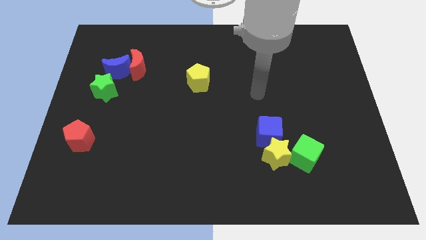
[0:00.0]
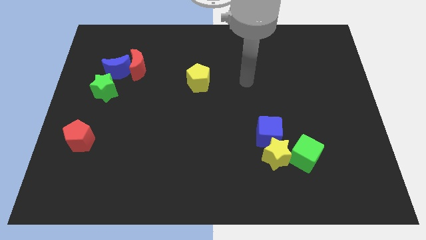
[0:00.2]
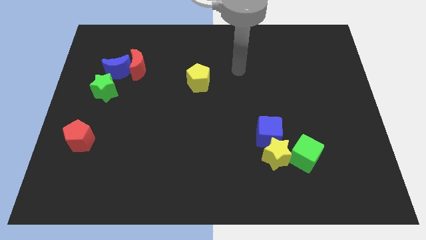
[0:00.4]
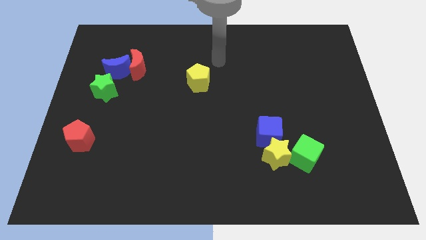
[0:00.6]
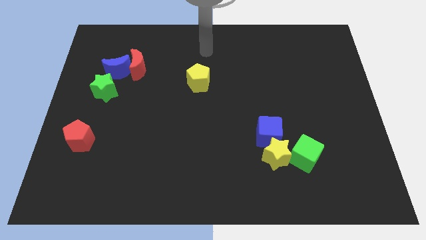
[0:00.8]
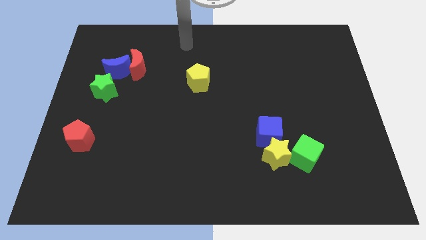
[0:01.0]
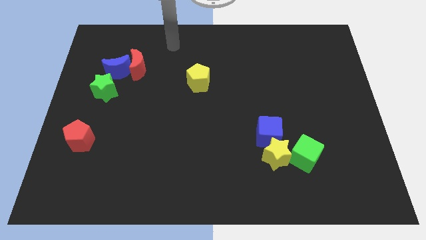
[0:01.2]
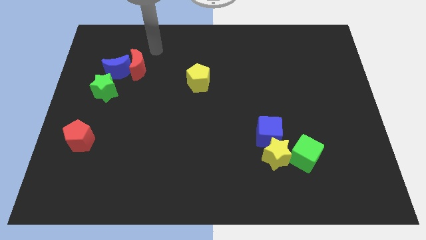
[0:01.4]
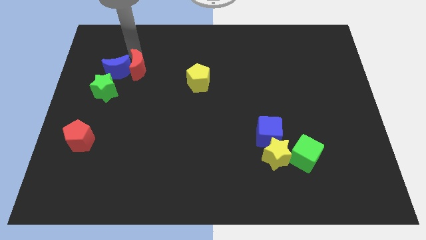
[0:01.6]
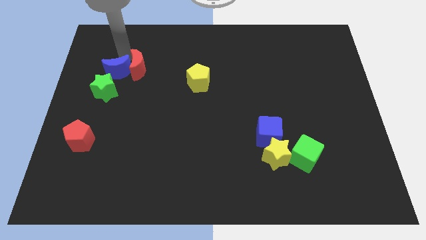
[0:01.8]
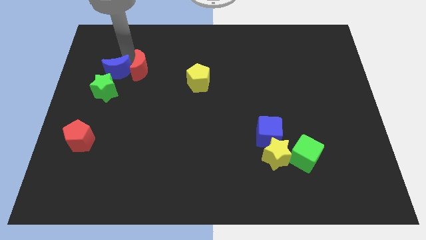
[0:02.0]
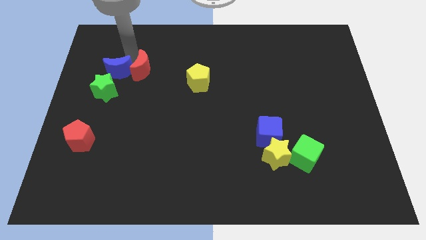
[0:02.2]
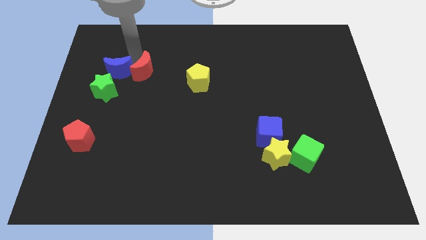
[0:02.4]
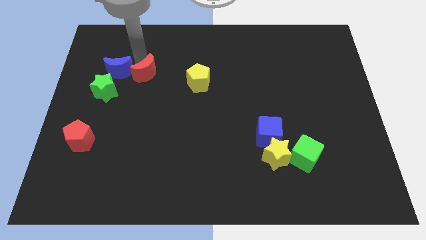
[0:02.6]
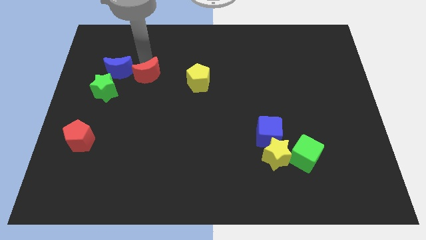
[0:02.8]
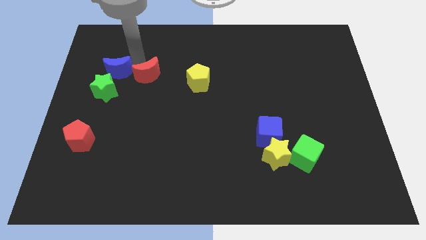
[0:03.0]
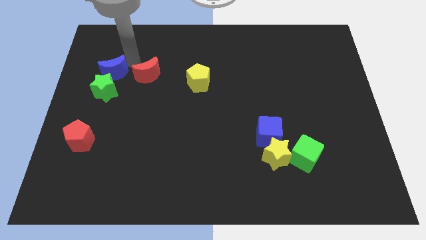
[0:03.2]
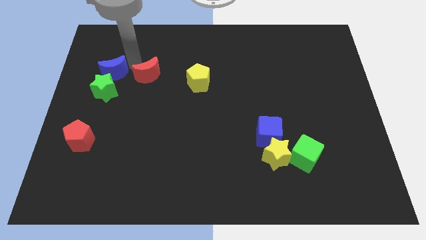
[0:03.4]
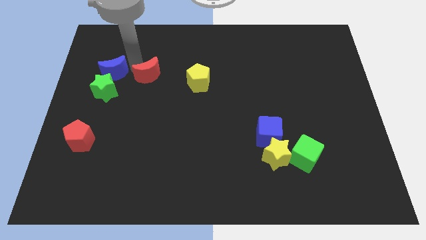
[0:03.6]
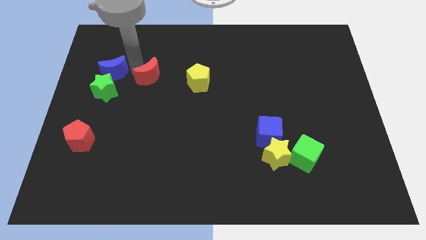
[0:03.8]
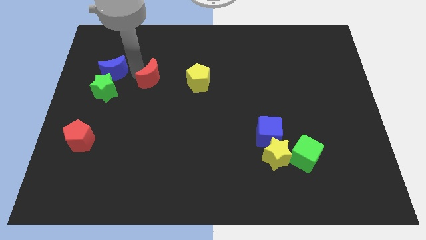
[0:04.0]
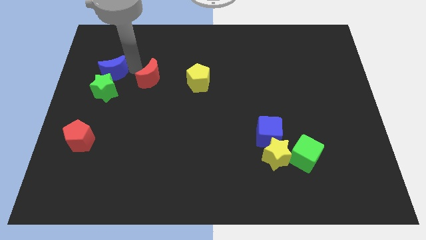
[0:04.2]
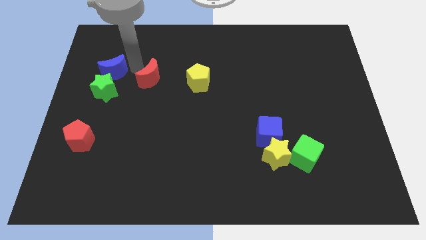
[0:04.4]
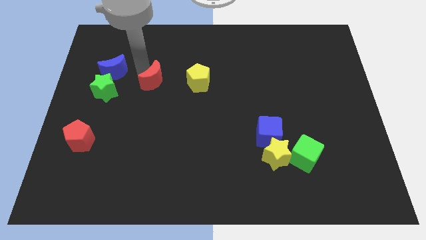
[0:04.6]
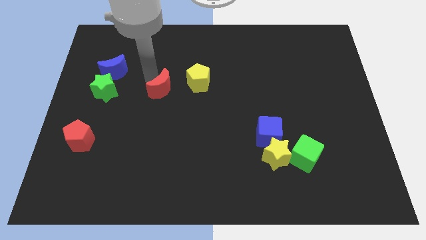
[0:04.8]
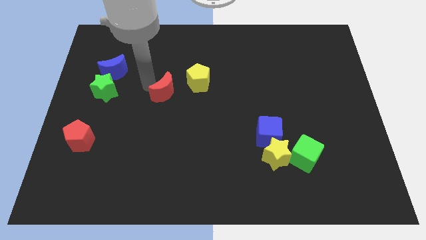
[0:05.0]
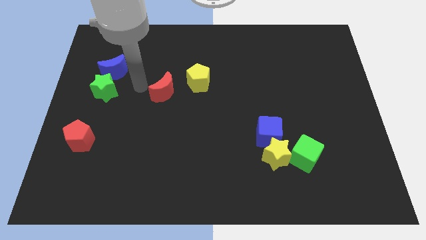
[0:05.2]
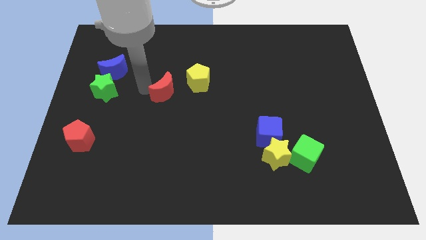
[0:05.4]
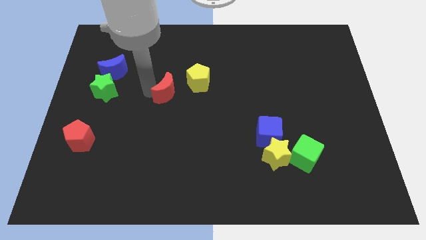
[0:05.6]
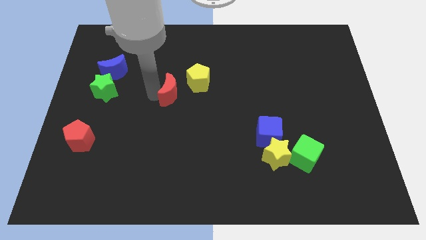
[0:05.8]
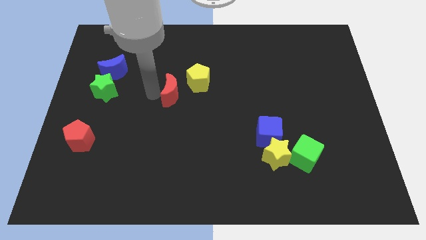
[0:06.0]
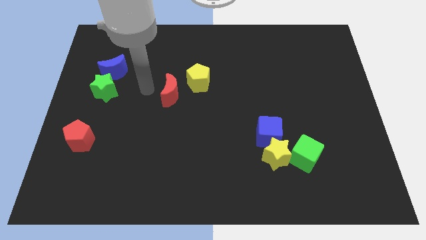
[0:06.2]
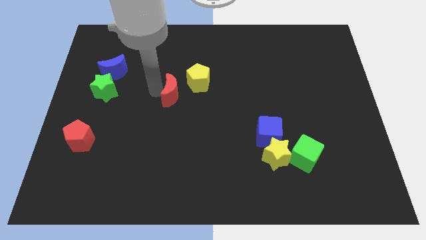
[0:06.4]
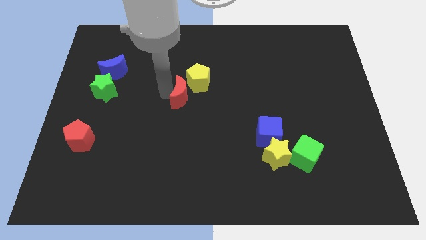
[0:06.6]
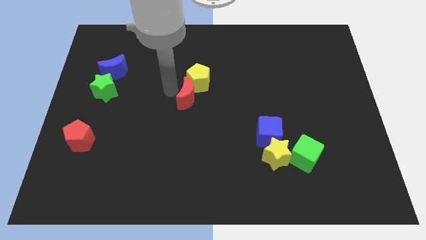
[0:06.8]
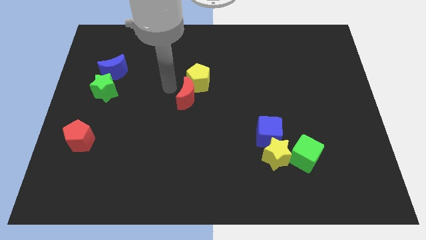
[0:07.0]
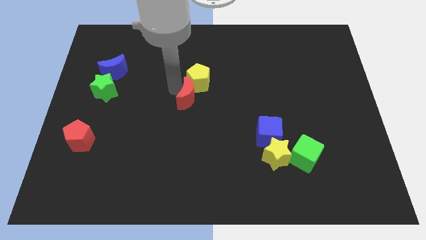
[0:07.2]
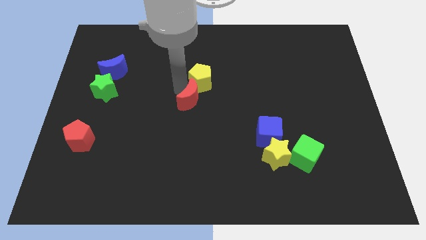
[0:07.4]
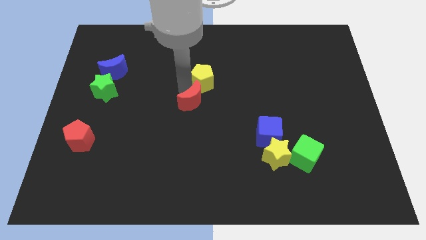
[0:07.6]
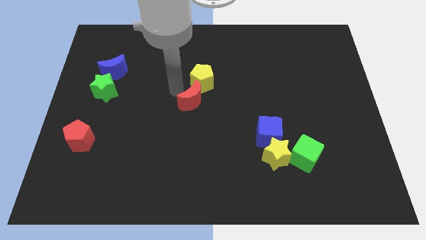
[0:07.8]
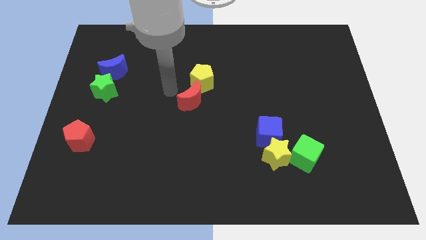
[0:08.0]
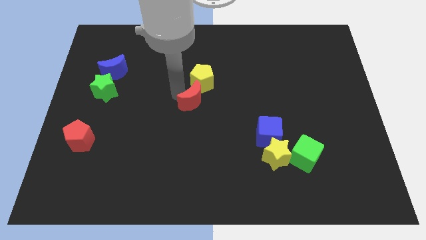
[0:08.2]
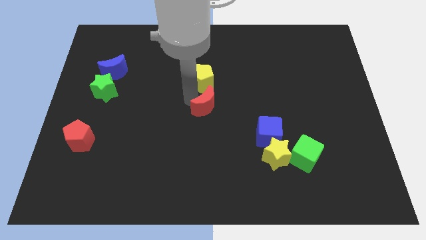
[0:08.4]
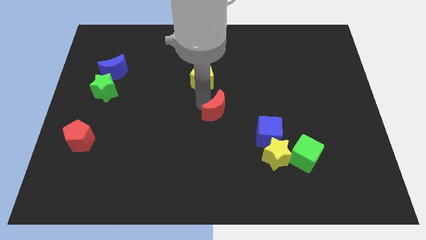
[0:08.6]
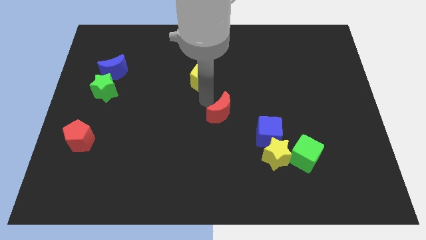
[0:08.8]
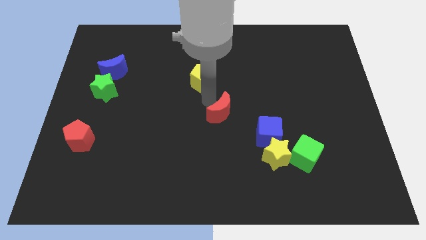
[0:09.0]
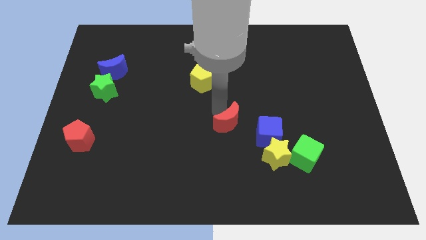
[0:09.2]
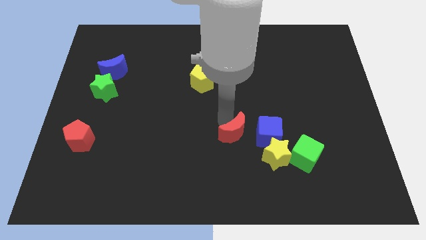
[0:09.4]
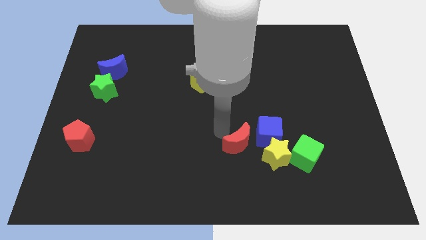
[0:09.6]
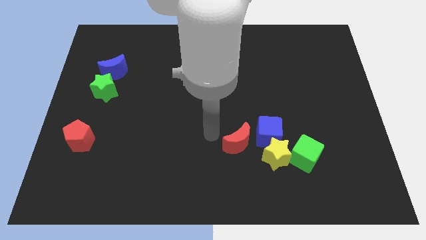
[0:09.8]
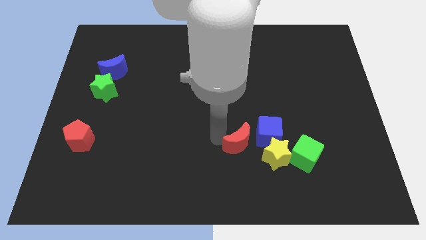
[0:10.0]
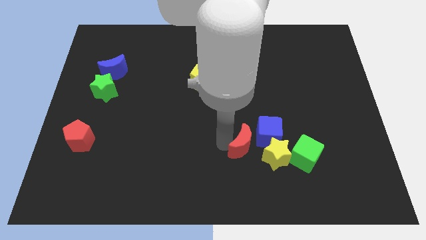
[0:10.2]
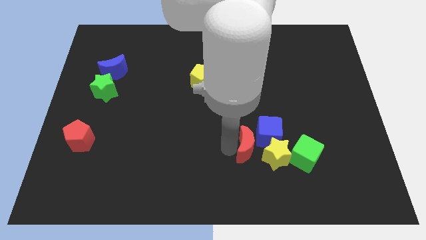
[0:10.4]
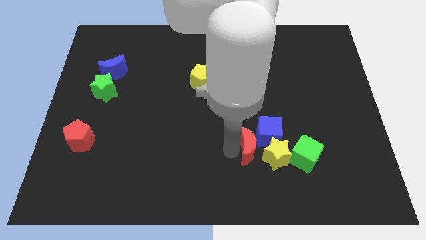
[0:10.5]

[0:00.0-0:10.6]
move the red moon towards the yellow star

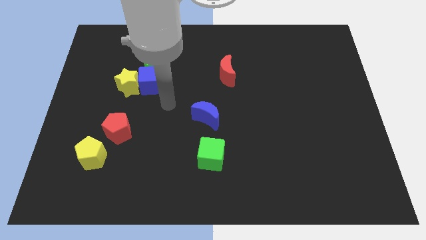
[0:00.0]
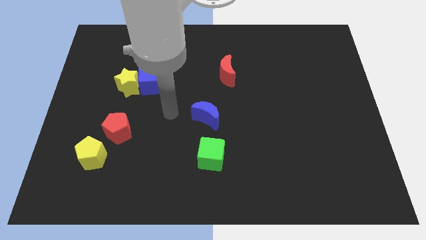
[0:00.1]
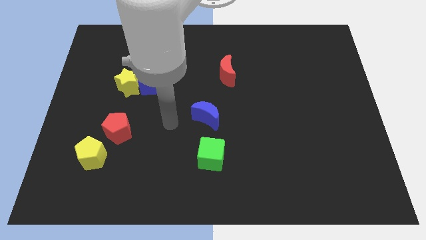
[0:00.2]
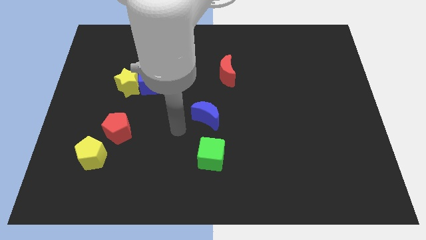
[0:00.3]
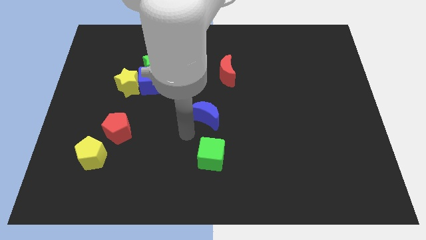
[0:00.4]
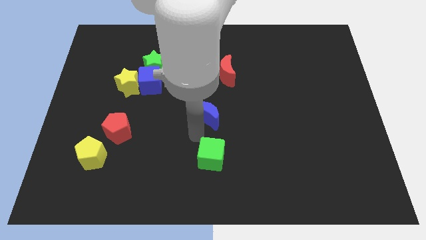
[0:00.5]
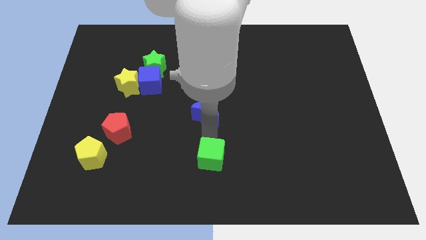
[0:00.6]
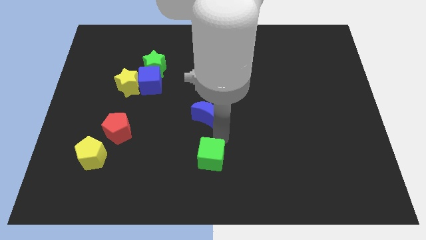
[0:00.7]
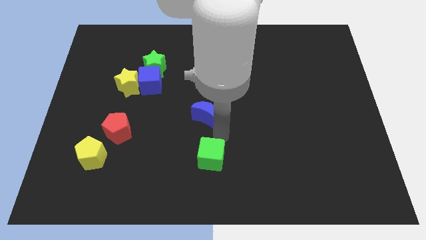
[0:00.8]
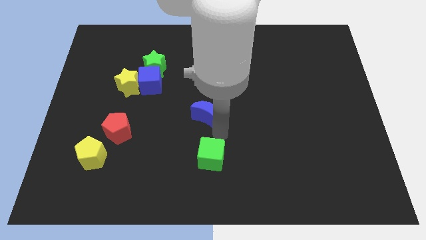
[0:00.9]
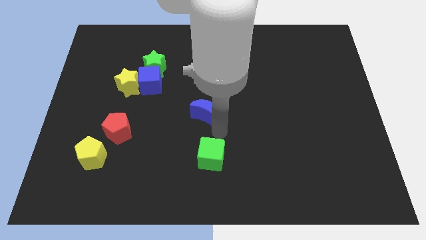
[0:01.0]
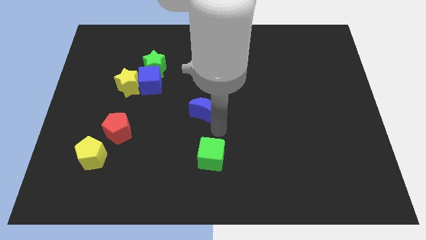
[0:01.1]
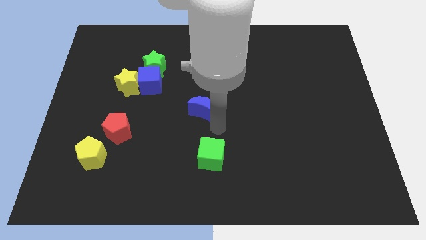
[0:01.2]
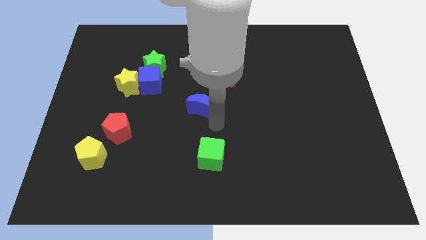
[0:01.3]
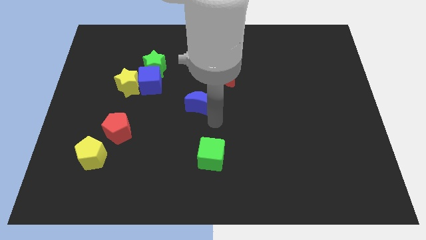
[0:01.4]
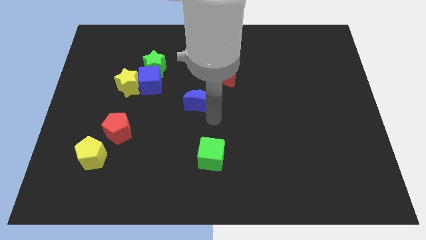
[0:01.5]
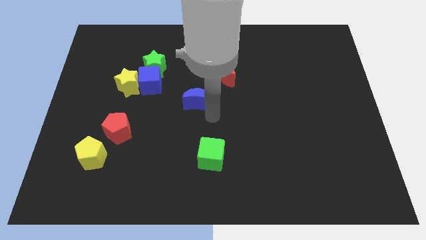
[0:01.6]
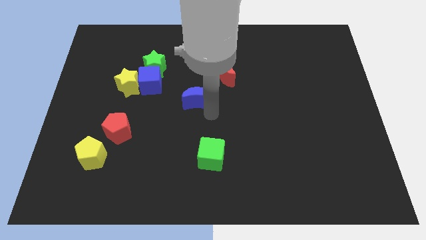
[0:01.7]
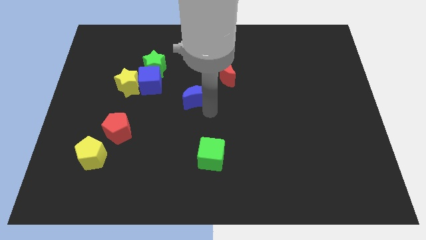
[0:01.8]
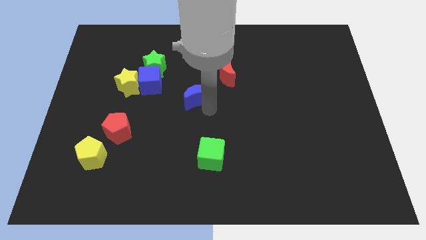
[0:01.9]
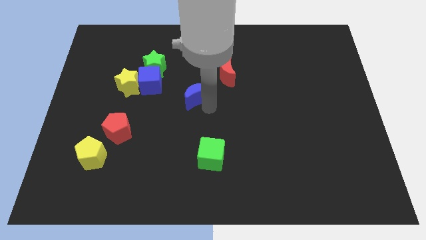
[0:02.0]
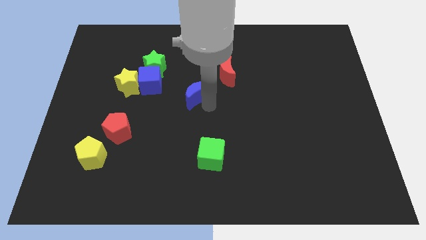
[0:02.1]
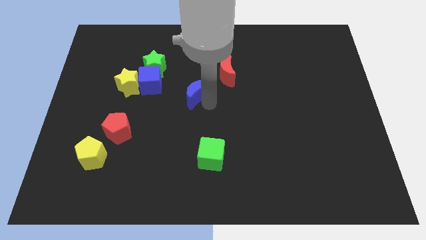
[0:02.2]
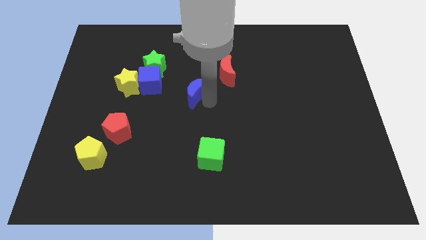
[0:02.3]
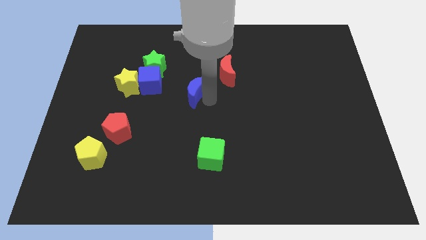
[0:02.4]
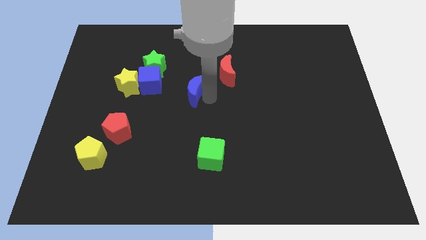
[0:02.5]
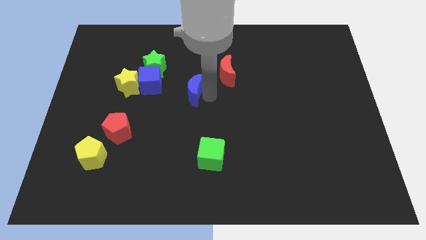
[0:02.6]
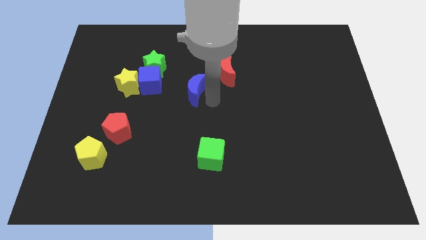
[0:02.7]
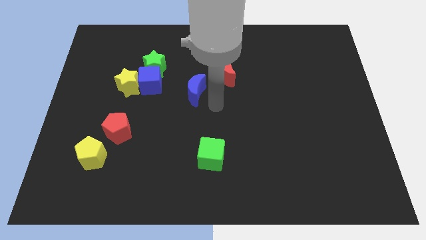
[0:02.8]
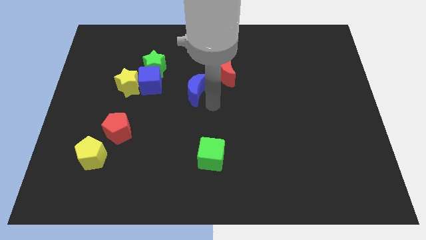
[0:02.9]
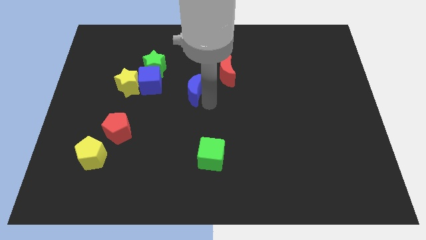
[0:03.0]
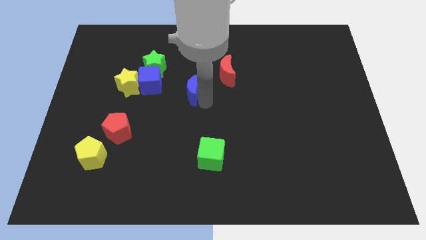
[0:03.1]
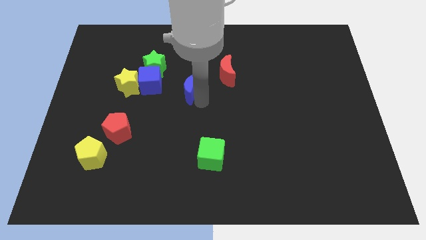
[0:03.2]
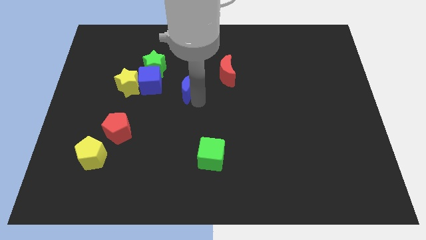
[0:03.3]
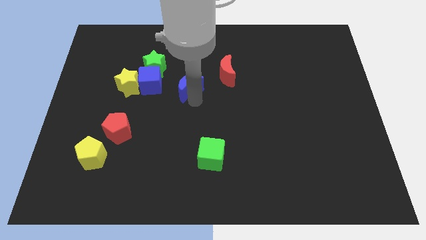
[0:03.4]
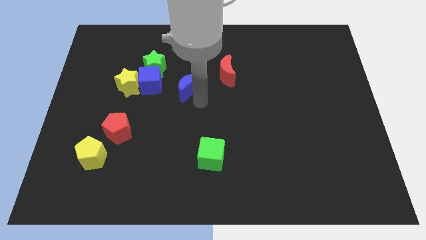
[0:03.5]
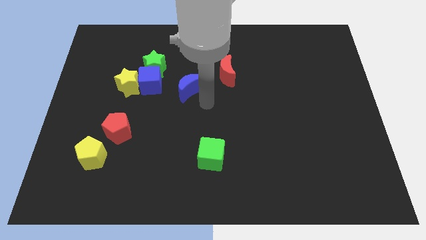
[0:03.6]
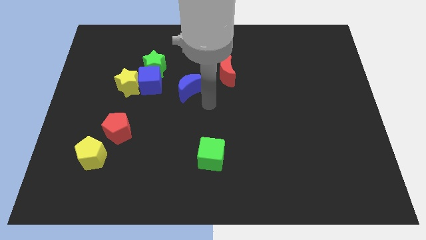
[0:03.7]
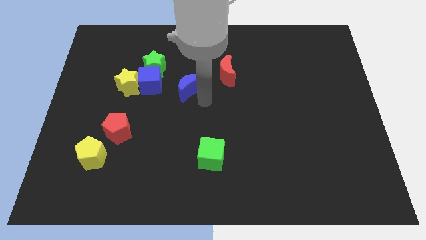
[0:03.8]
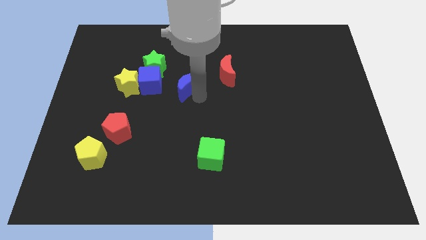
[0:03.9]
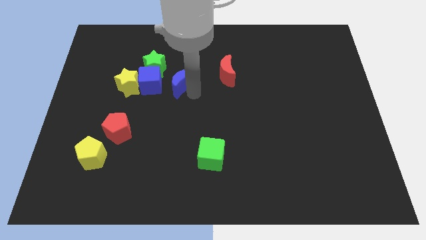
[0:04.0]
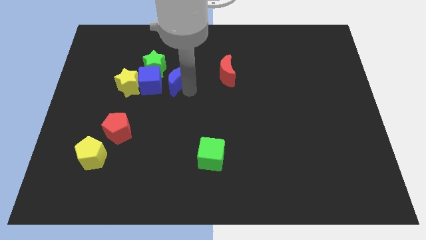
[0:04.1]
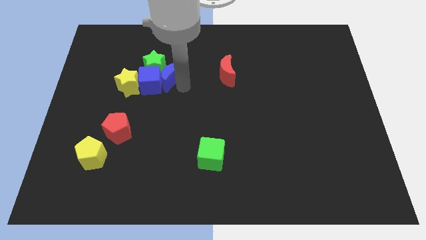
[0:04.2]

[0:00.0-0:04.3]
put the blue moon towards the green star
